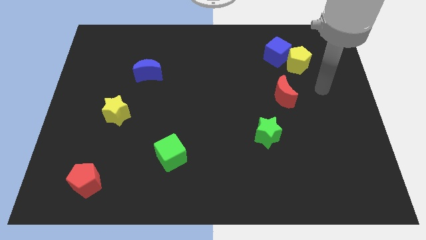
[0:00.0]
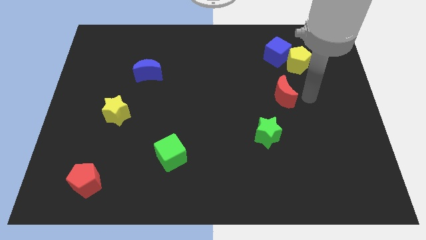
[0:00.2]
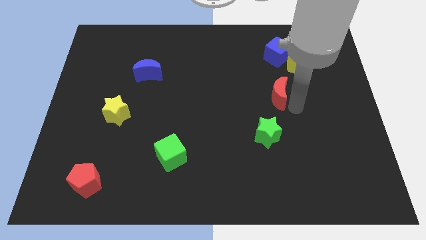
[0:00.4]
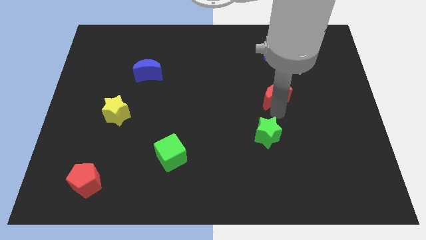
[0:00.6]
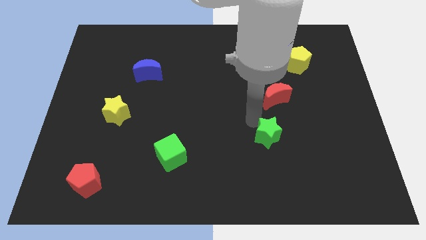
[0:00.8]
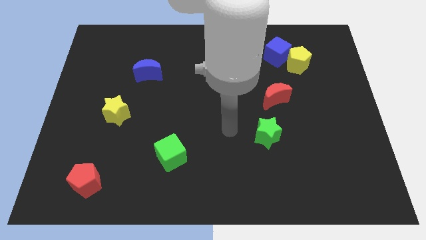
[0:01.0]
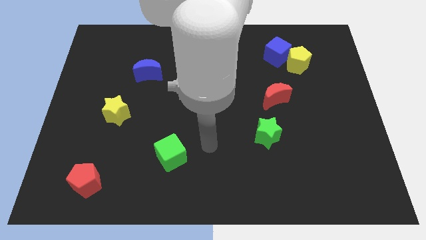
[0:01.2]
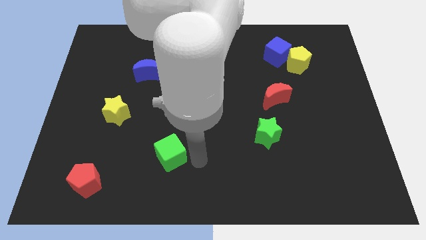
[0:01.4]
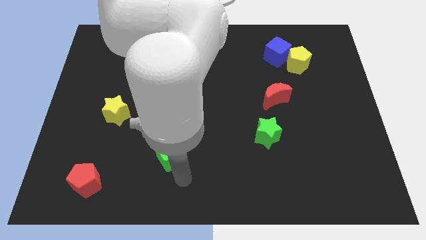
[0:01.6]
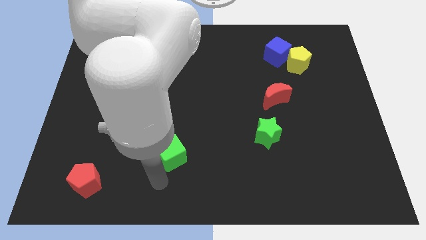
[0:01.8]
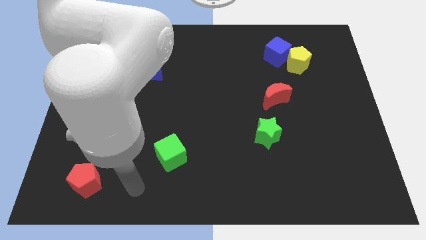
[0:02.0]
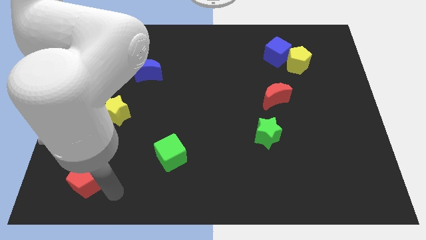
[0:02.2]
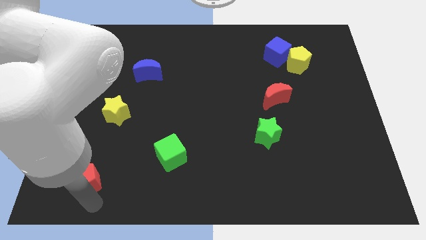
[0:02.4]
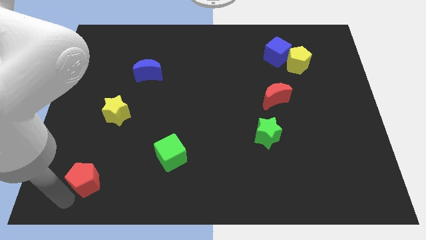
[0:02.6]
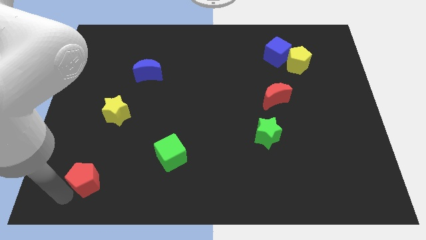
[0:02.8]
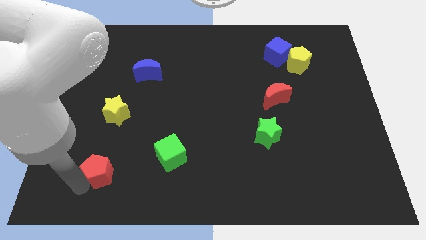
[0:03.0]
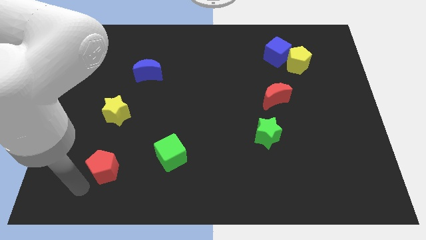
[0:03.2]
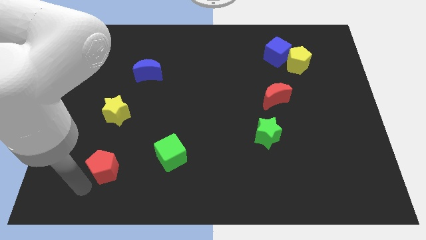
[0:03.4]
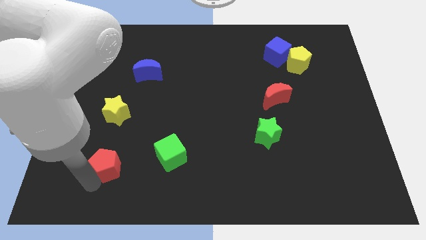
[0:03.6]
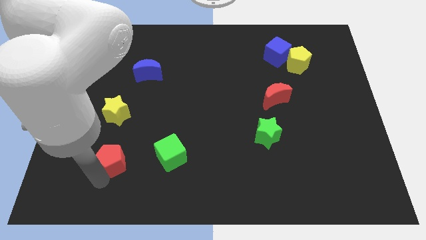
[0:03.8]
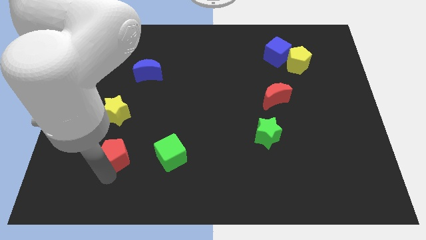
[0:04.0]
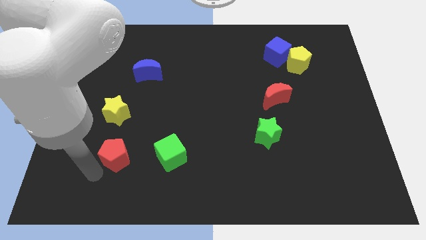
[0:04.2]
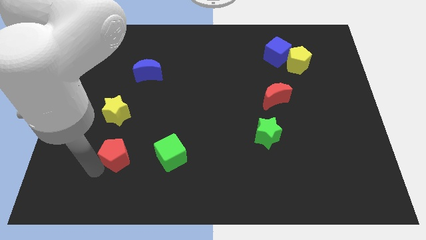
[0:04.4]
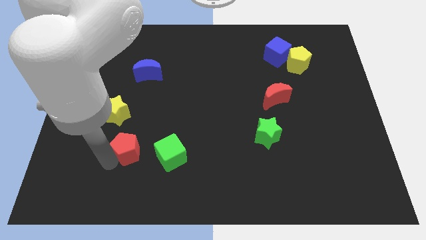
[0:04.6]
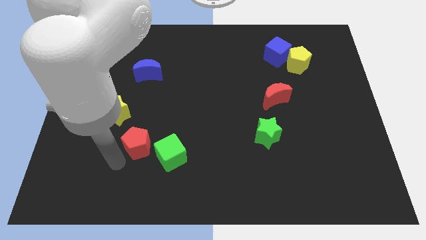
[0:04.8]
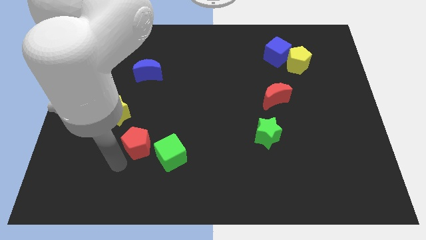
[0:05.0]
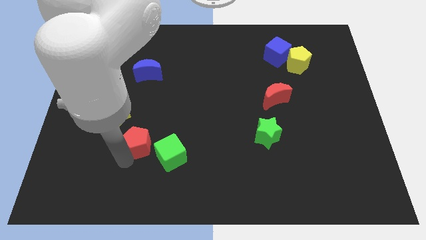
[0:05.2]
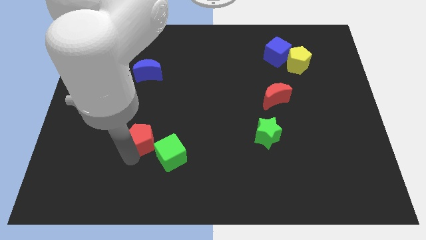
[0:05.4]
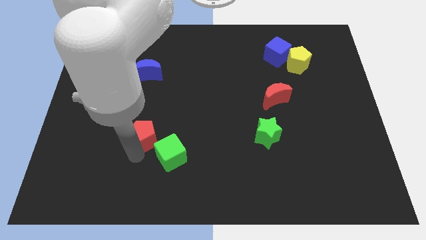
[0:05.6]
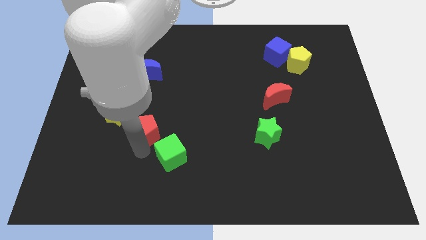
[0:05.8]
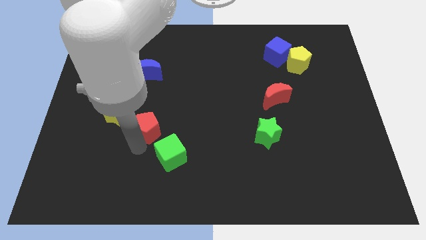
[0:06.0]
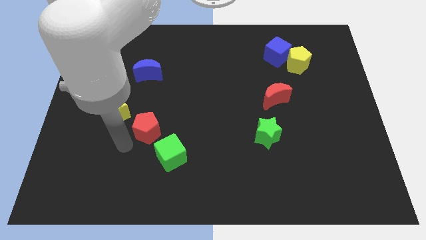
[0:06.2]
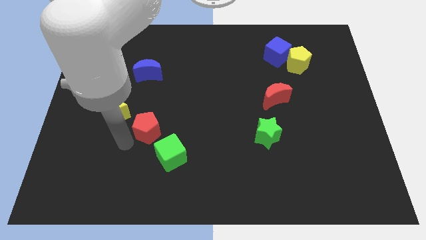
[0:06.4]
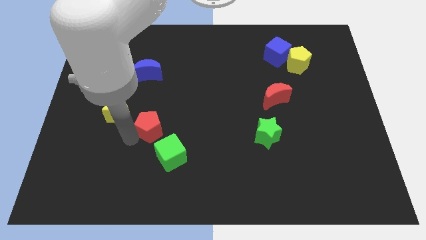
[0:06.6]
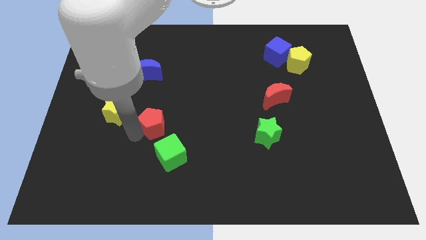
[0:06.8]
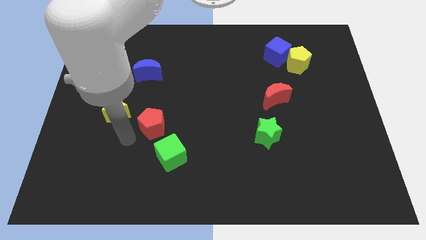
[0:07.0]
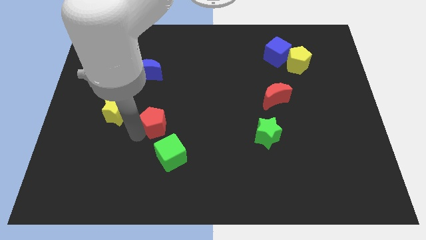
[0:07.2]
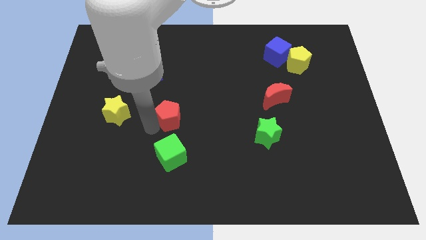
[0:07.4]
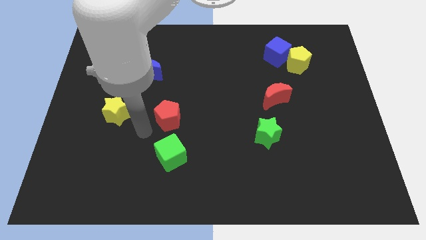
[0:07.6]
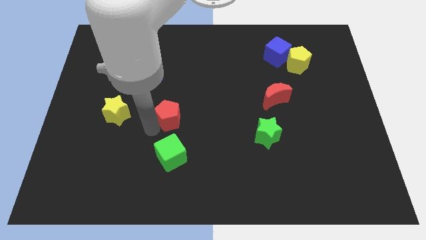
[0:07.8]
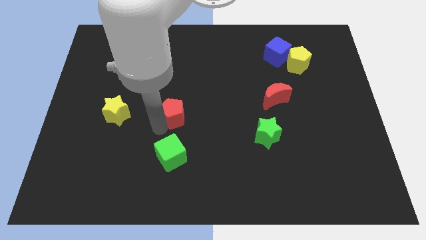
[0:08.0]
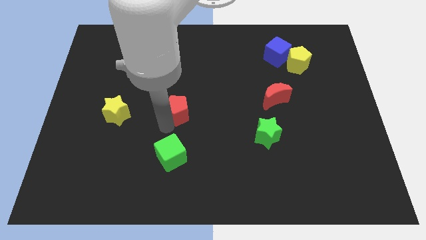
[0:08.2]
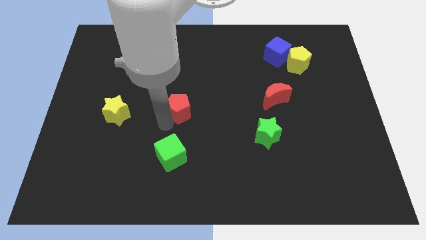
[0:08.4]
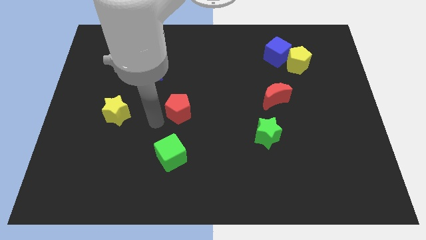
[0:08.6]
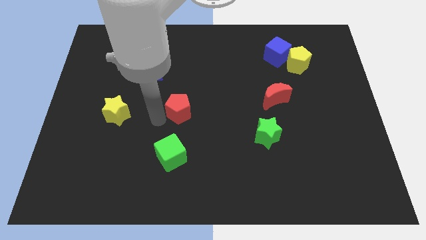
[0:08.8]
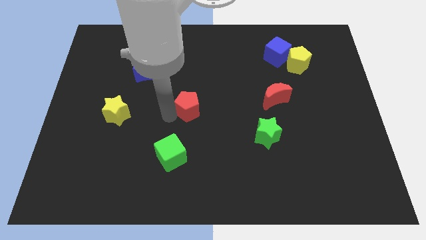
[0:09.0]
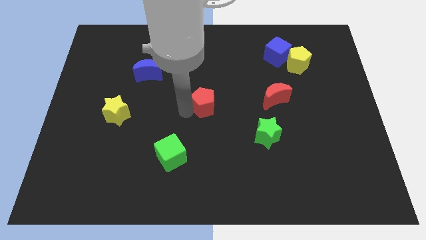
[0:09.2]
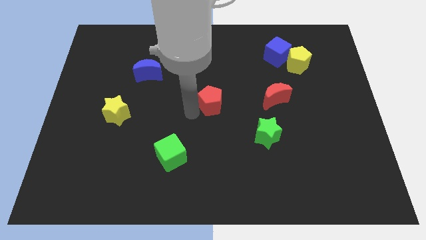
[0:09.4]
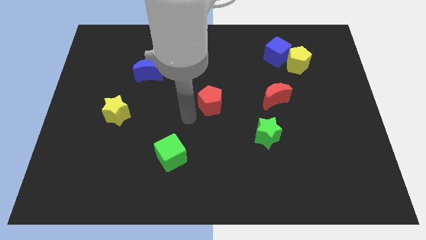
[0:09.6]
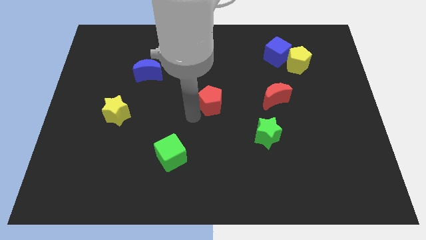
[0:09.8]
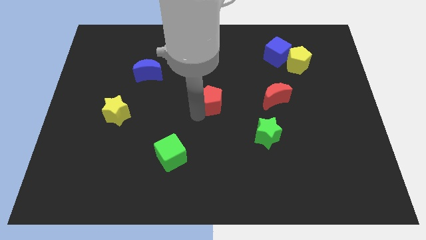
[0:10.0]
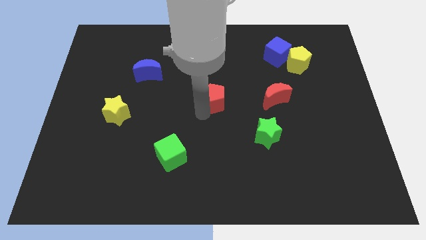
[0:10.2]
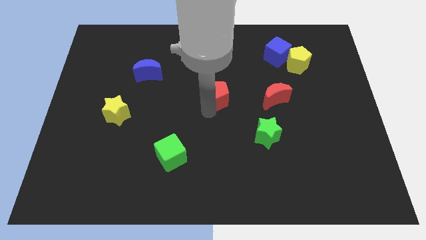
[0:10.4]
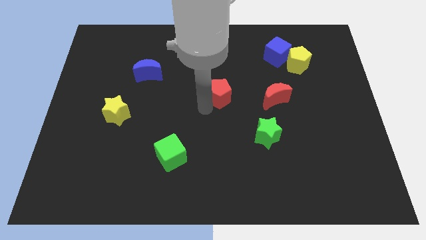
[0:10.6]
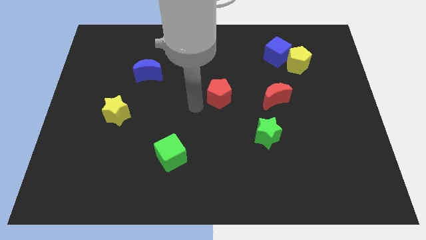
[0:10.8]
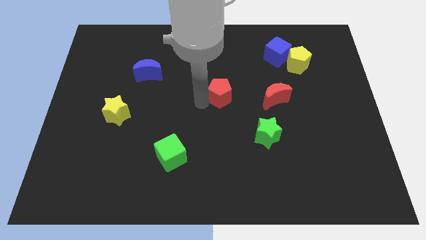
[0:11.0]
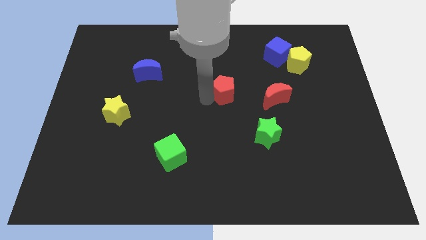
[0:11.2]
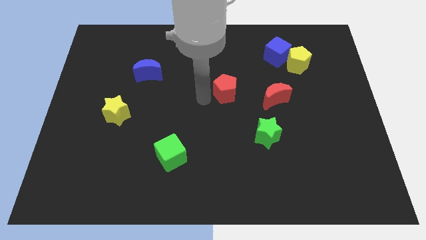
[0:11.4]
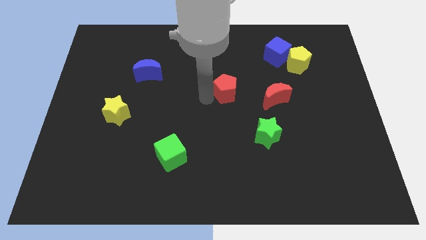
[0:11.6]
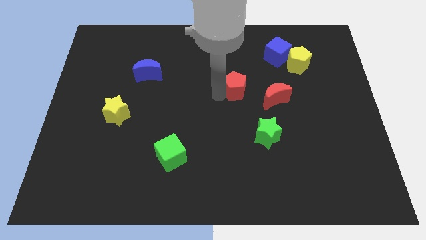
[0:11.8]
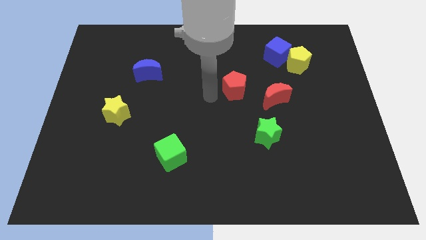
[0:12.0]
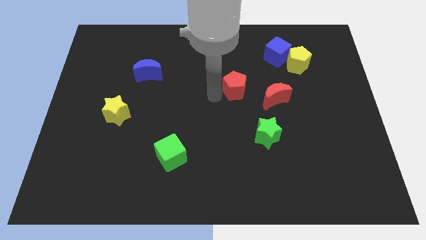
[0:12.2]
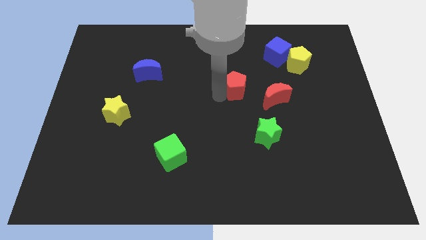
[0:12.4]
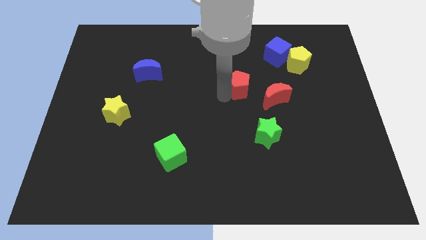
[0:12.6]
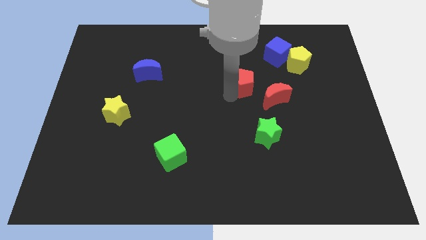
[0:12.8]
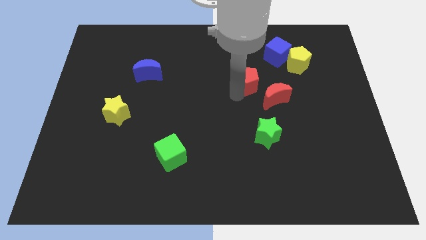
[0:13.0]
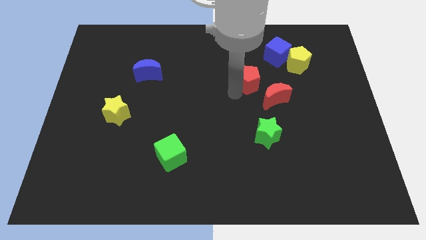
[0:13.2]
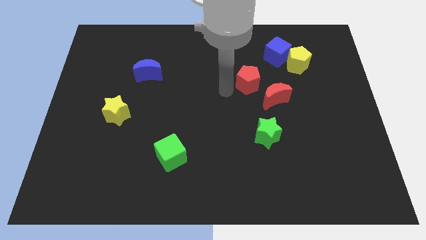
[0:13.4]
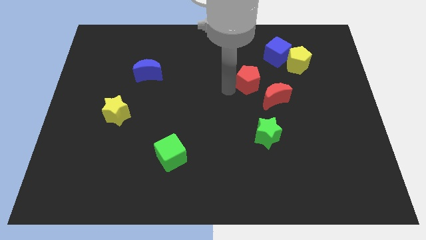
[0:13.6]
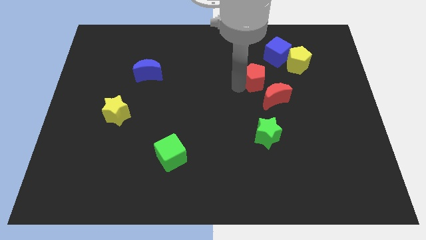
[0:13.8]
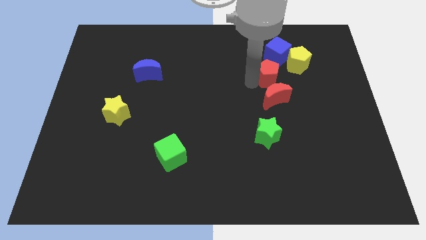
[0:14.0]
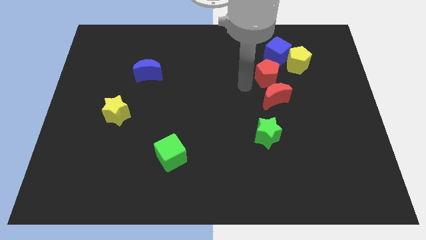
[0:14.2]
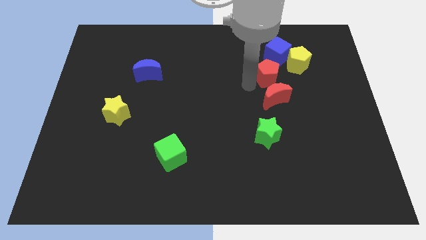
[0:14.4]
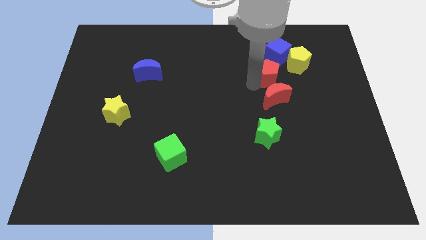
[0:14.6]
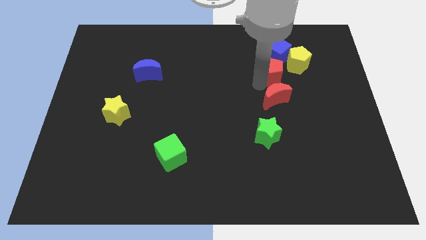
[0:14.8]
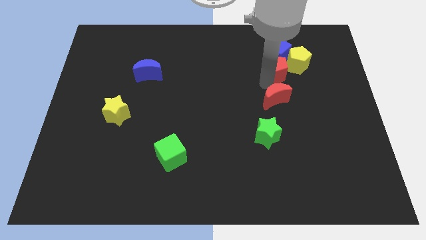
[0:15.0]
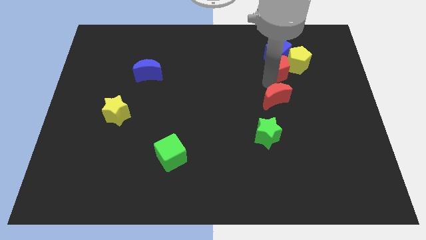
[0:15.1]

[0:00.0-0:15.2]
put the red pentagon towards the yellow pentagon
